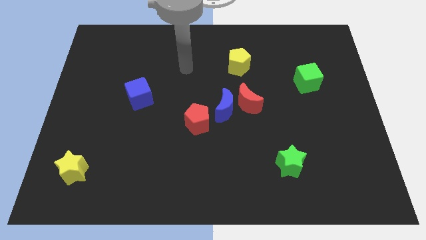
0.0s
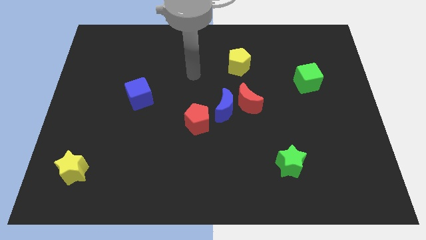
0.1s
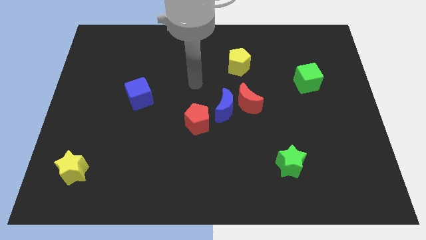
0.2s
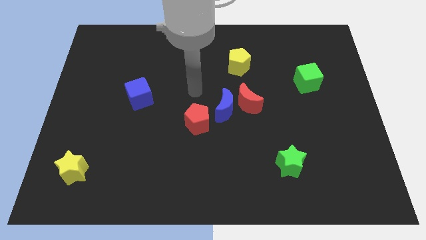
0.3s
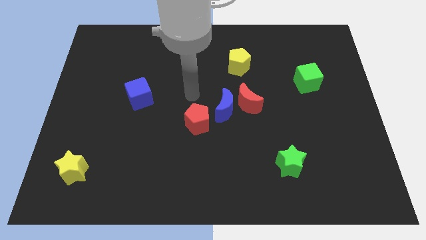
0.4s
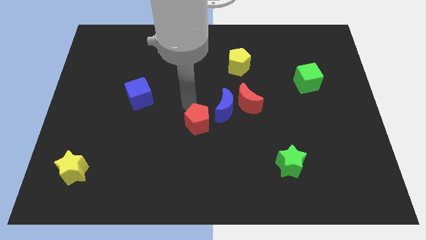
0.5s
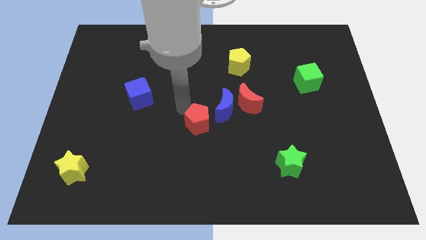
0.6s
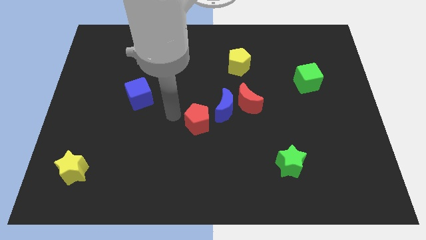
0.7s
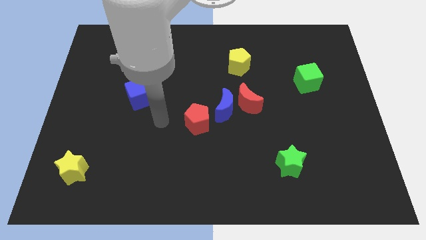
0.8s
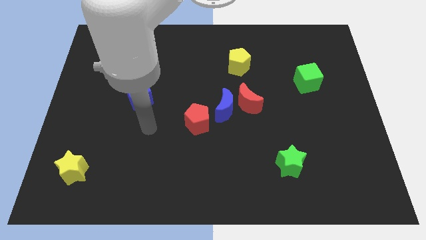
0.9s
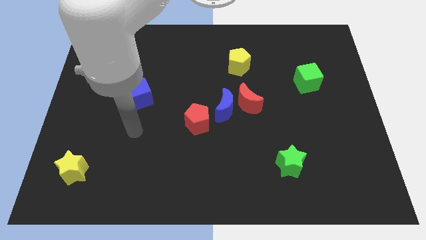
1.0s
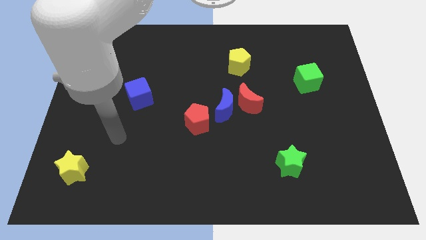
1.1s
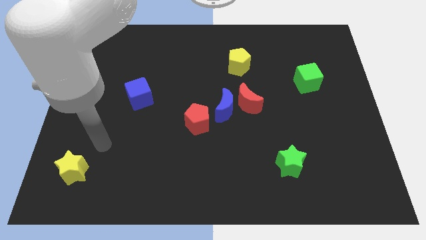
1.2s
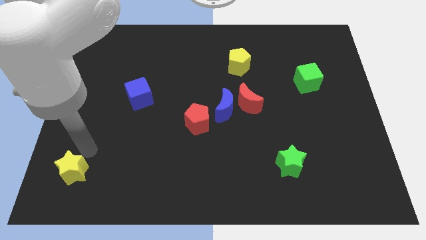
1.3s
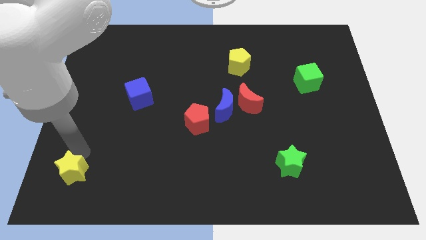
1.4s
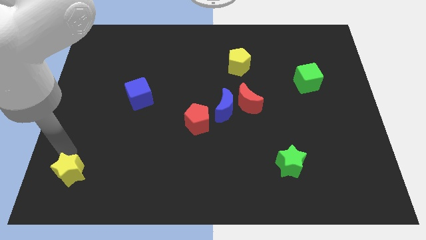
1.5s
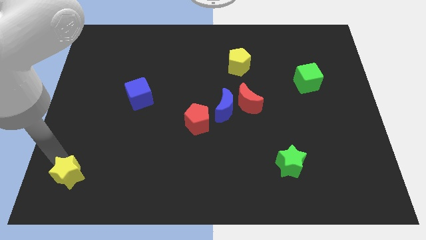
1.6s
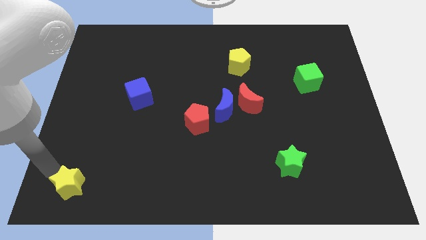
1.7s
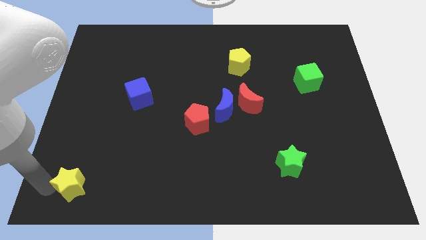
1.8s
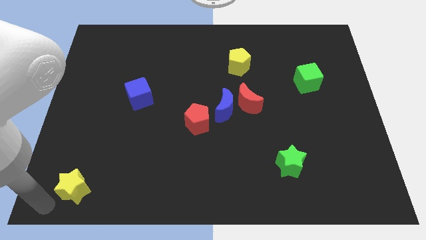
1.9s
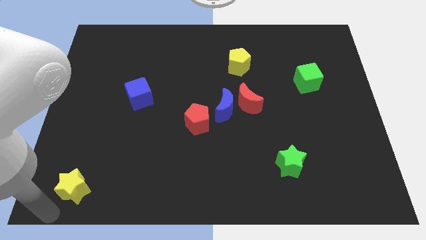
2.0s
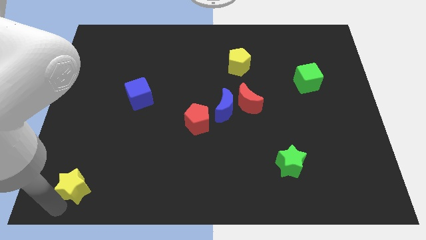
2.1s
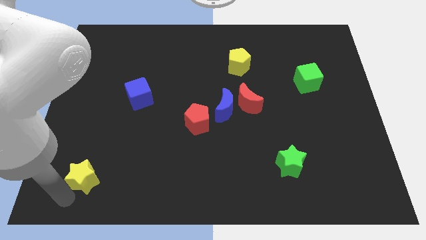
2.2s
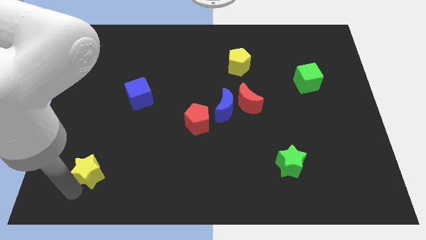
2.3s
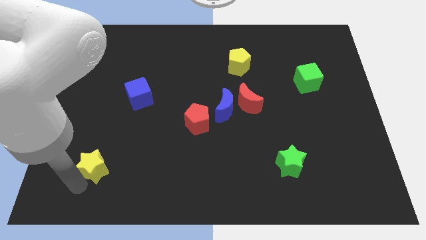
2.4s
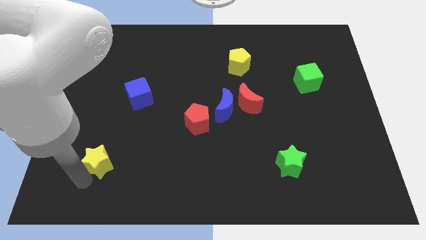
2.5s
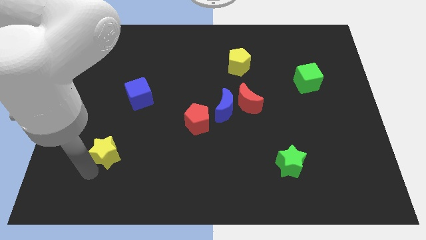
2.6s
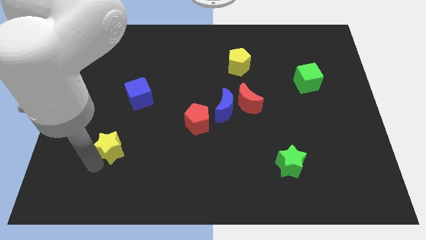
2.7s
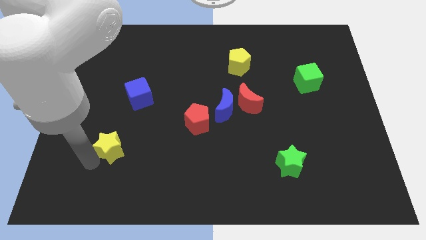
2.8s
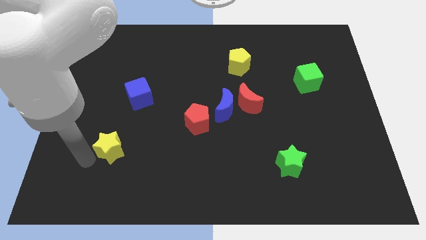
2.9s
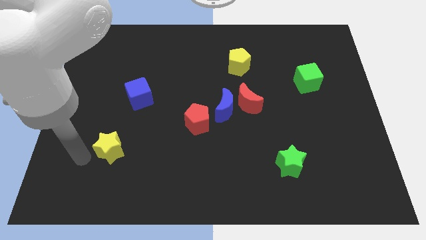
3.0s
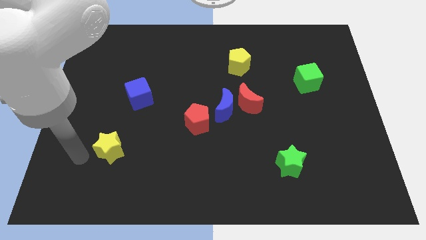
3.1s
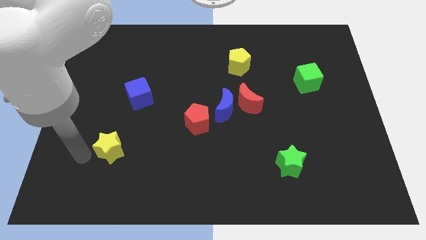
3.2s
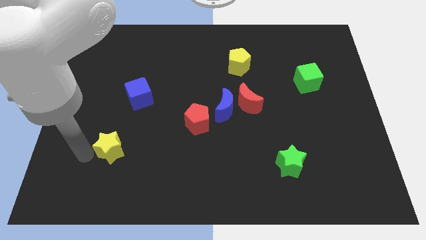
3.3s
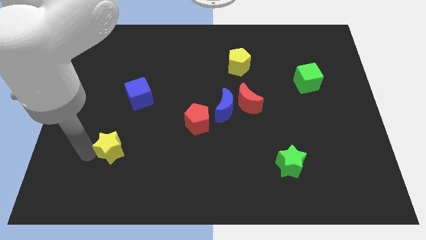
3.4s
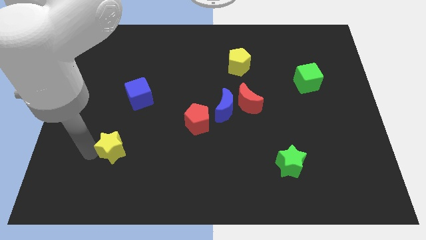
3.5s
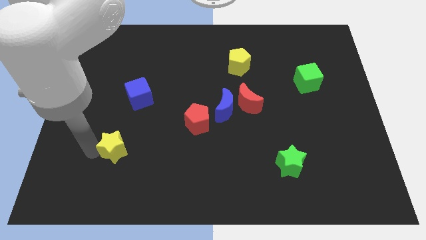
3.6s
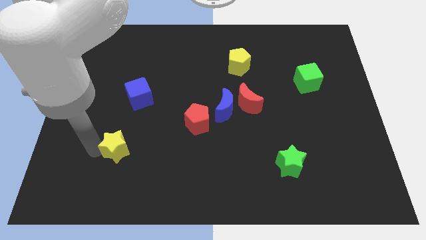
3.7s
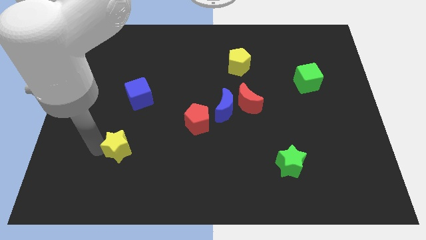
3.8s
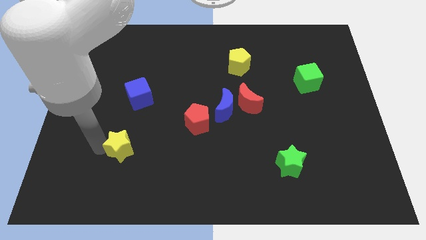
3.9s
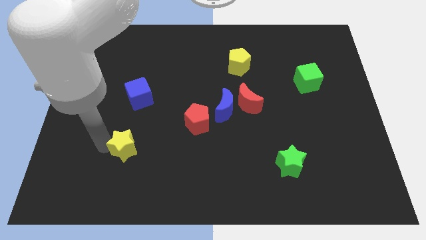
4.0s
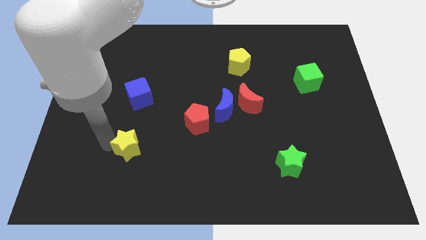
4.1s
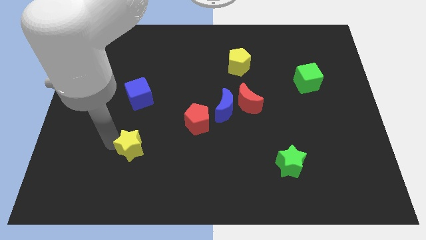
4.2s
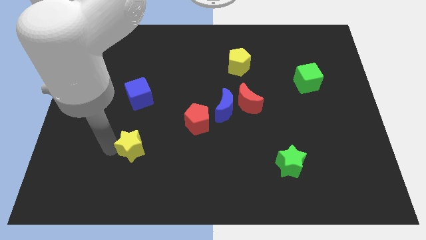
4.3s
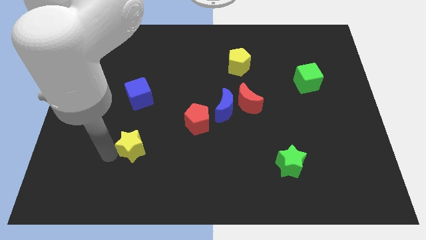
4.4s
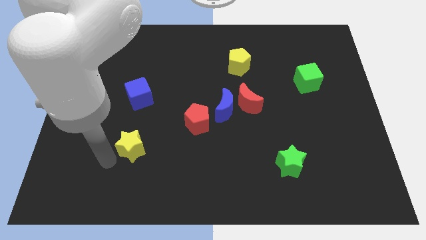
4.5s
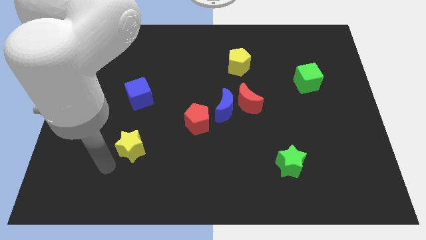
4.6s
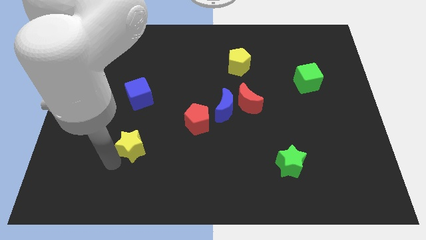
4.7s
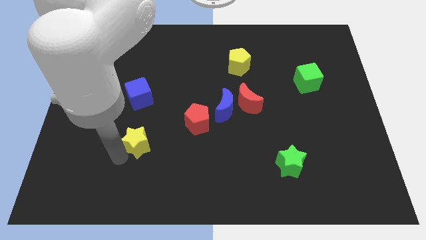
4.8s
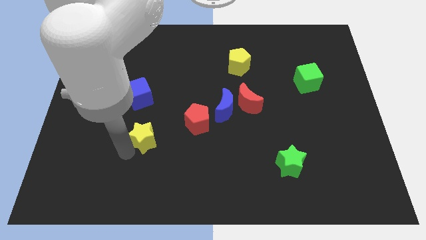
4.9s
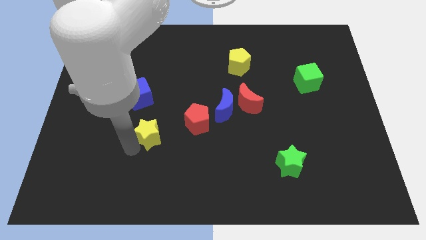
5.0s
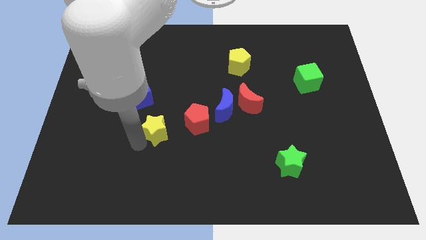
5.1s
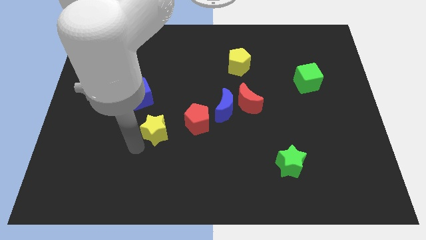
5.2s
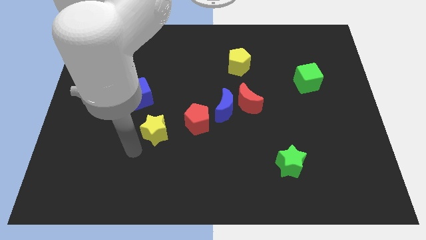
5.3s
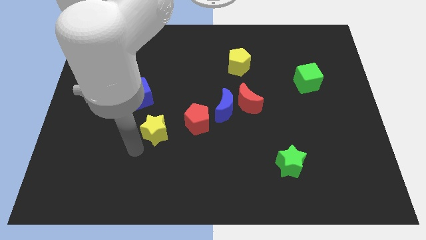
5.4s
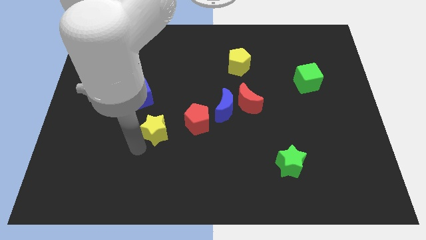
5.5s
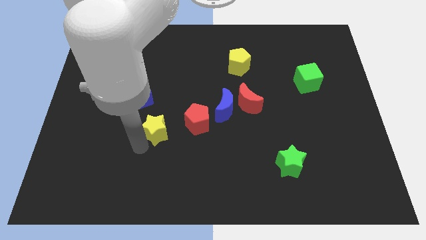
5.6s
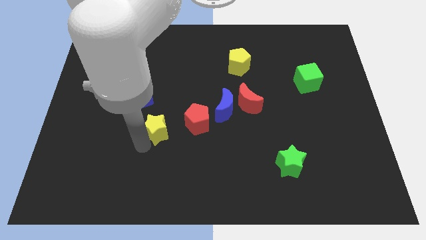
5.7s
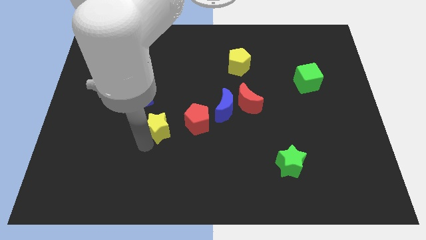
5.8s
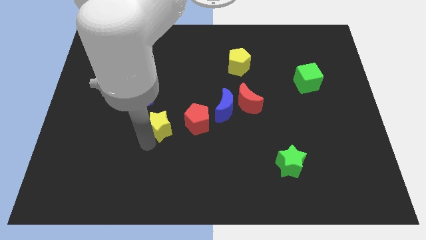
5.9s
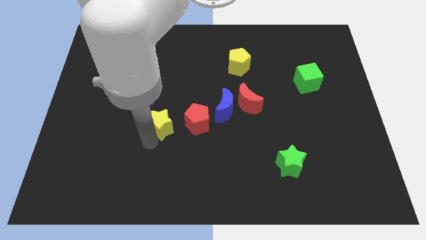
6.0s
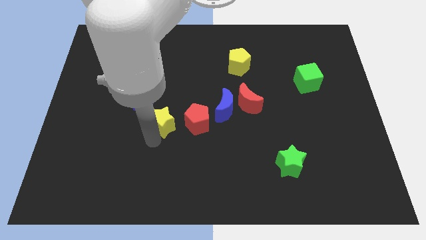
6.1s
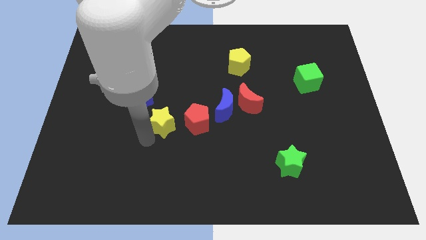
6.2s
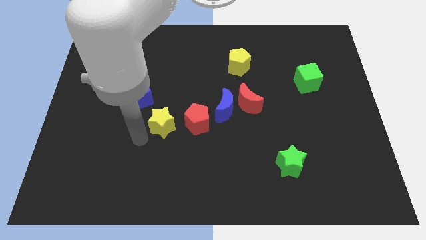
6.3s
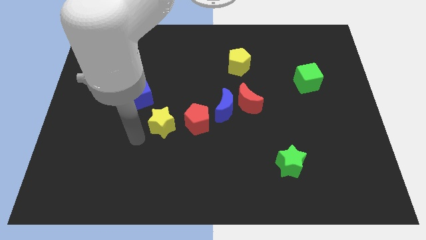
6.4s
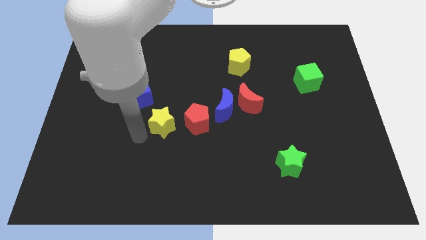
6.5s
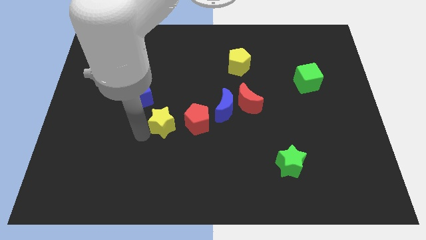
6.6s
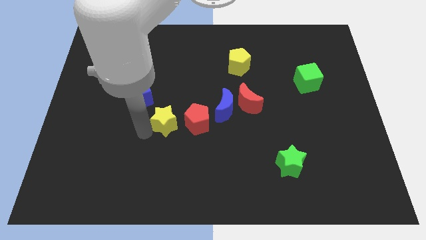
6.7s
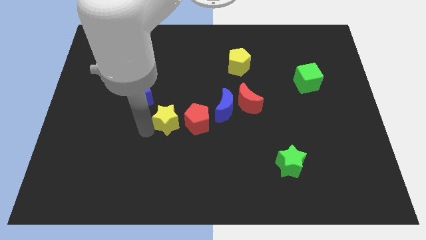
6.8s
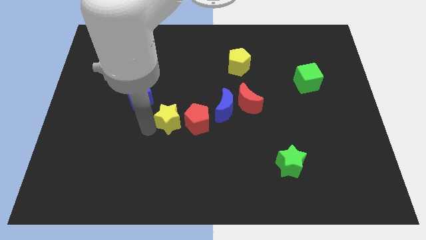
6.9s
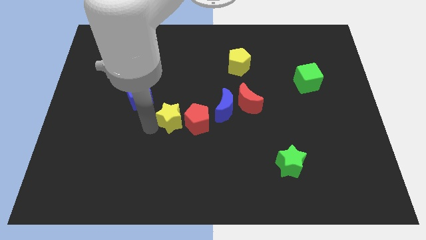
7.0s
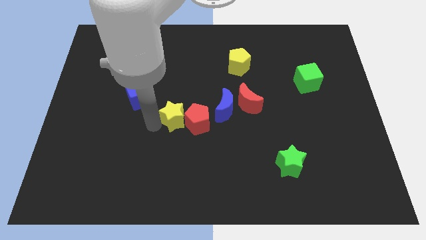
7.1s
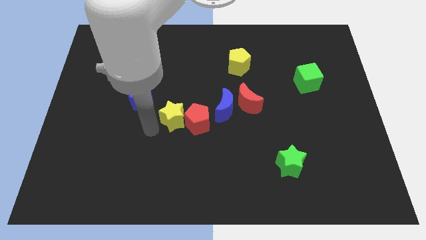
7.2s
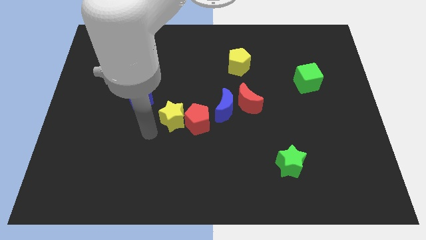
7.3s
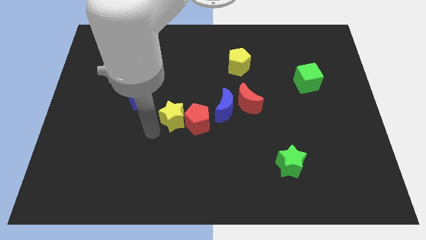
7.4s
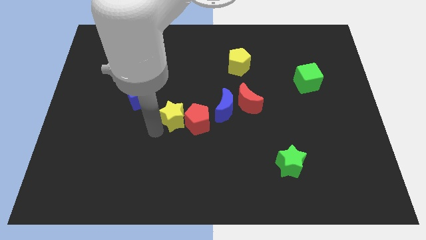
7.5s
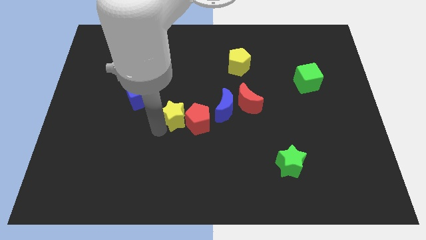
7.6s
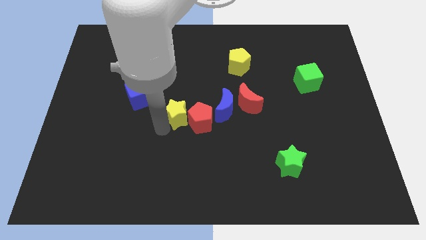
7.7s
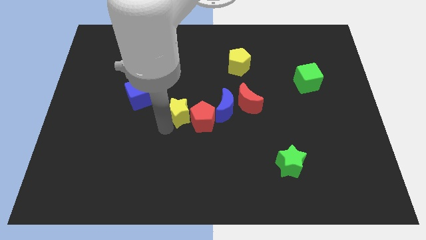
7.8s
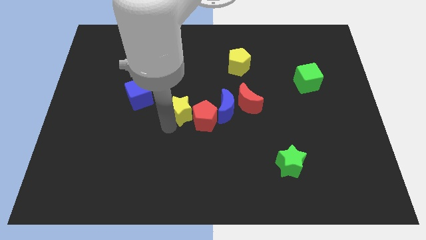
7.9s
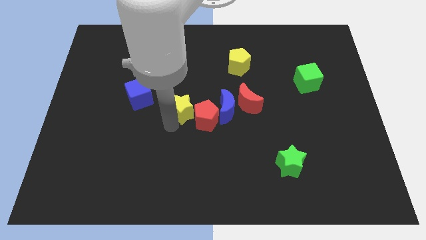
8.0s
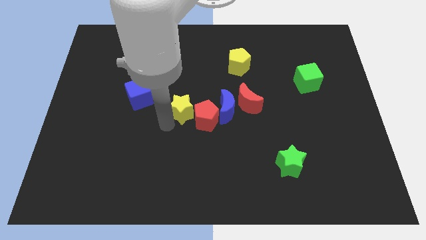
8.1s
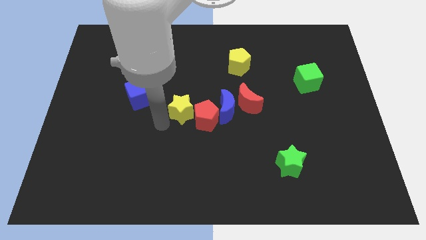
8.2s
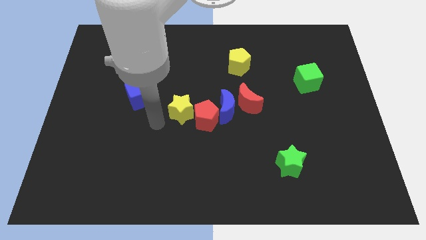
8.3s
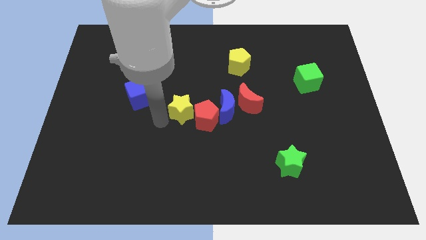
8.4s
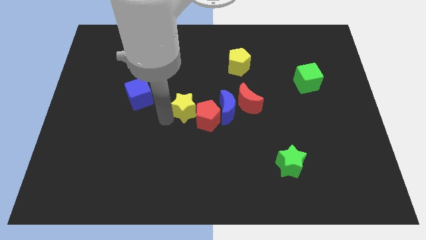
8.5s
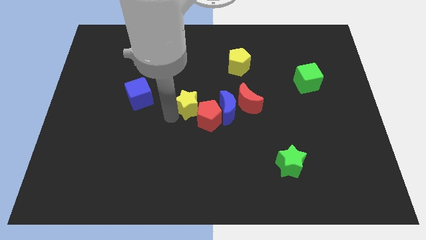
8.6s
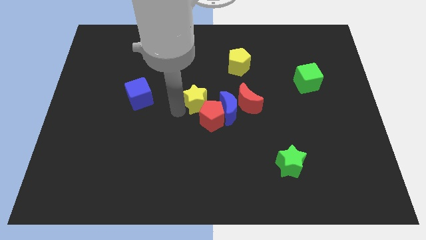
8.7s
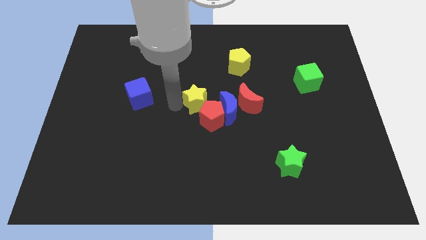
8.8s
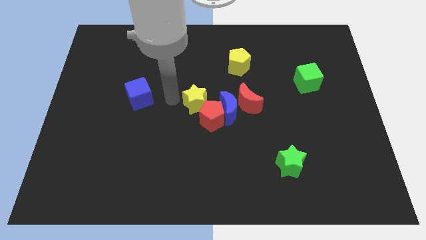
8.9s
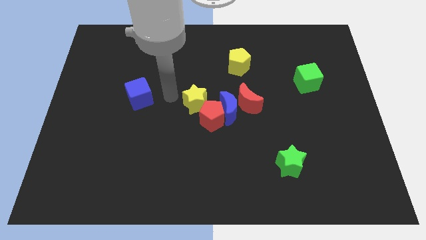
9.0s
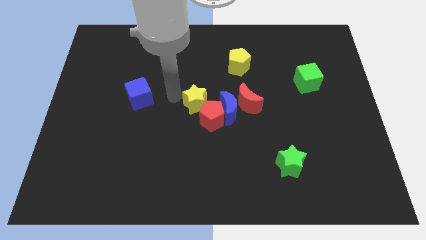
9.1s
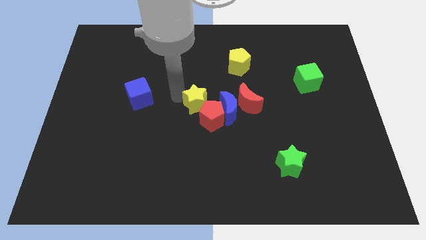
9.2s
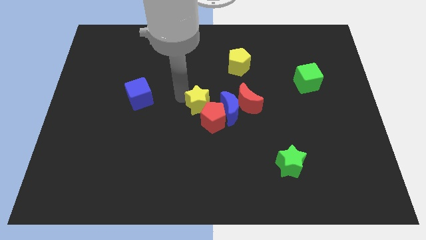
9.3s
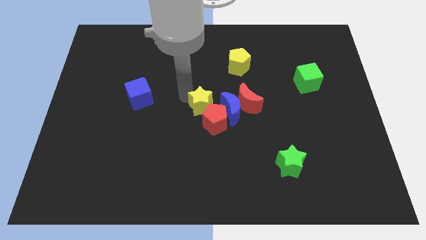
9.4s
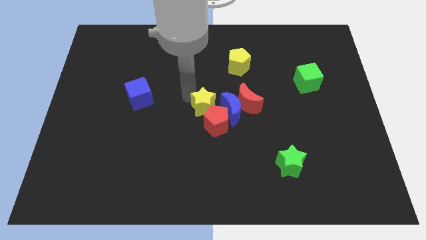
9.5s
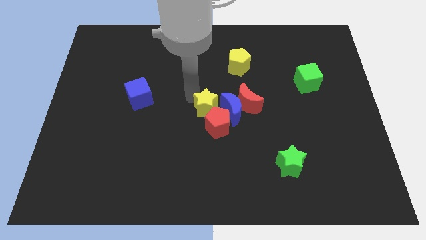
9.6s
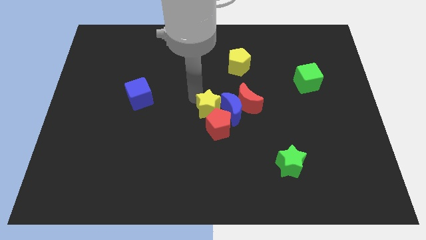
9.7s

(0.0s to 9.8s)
push the yellow star close to the blue moon
